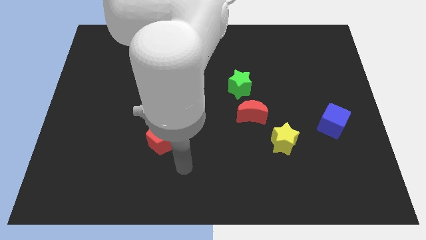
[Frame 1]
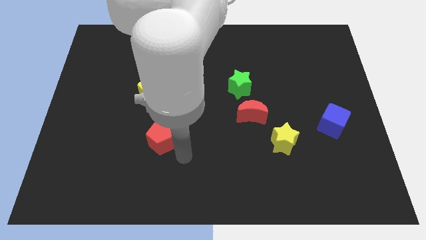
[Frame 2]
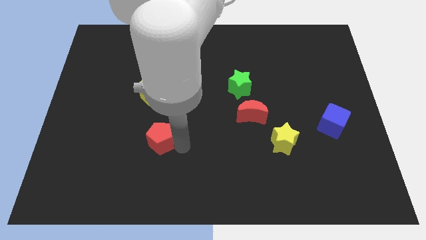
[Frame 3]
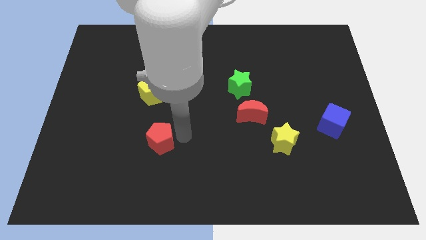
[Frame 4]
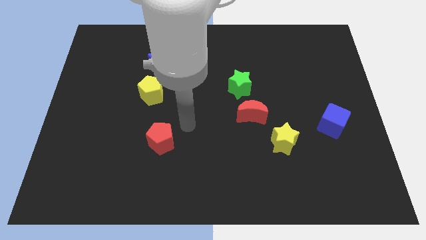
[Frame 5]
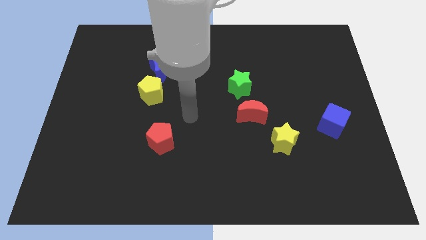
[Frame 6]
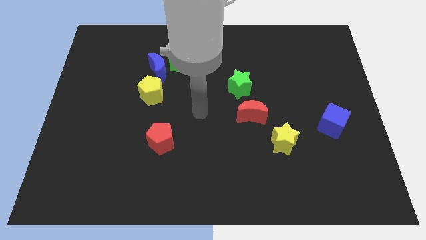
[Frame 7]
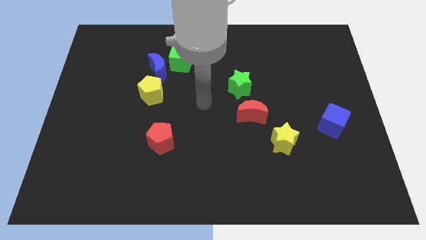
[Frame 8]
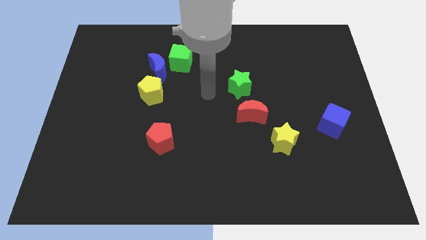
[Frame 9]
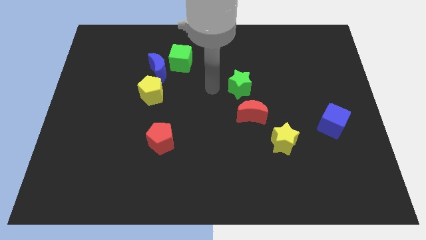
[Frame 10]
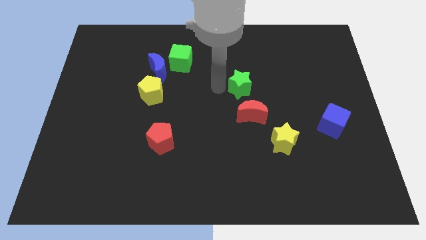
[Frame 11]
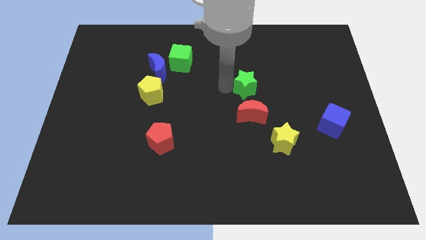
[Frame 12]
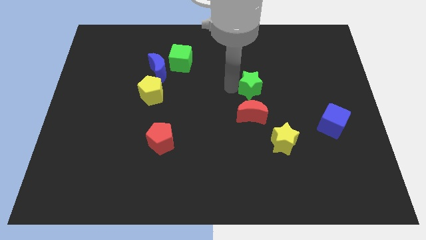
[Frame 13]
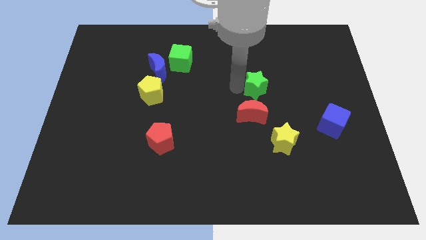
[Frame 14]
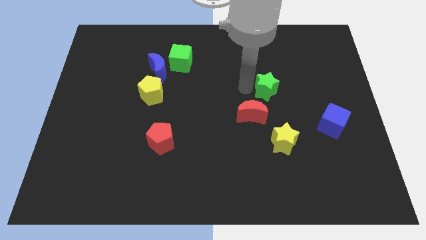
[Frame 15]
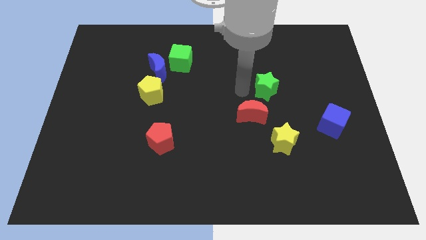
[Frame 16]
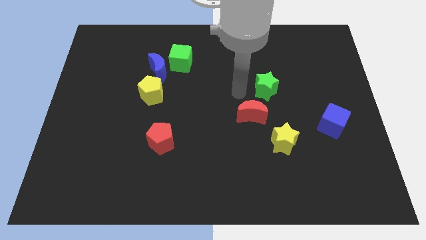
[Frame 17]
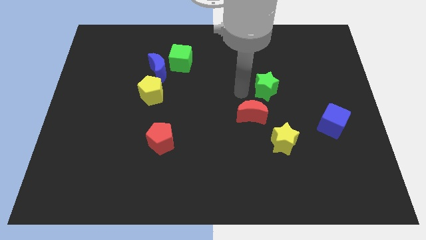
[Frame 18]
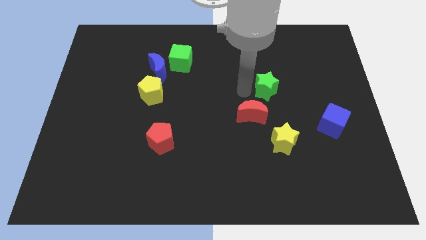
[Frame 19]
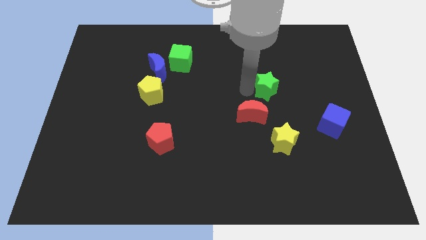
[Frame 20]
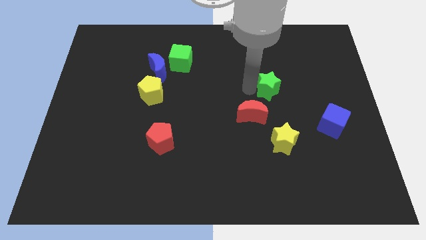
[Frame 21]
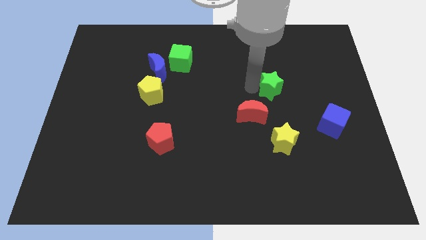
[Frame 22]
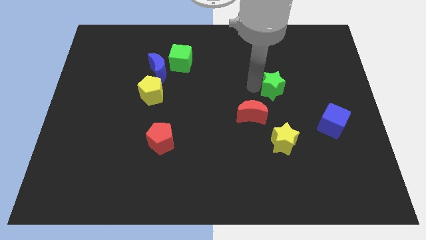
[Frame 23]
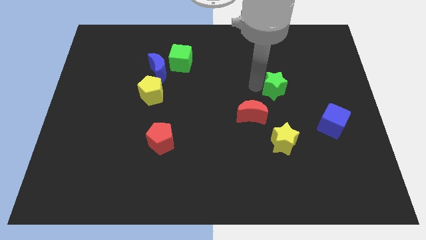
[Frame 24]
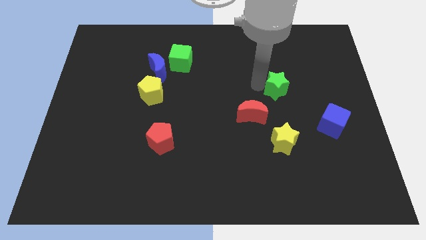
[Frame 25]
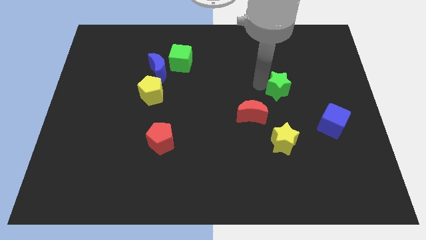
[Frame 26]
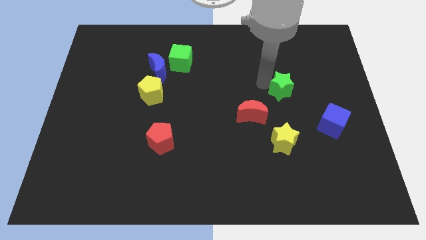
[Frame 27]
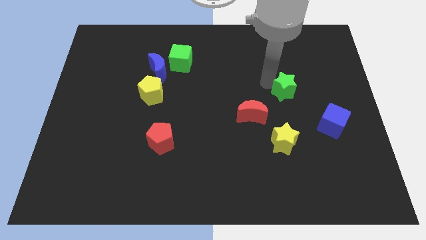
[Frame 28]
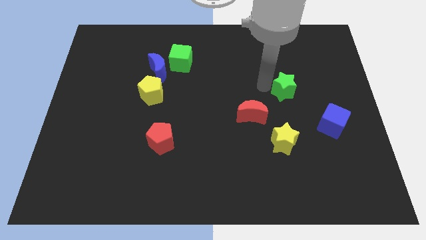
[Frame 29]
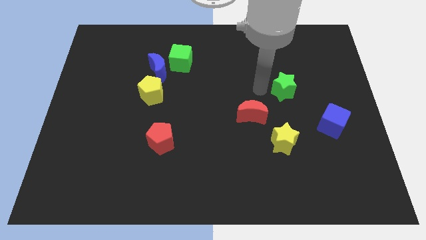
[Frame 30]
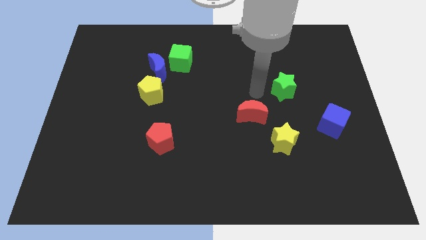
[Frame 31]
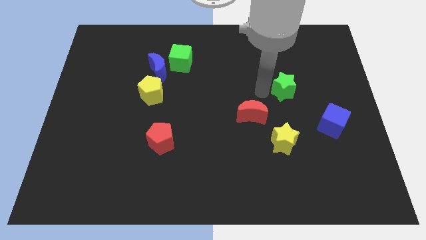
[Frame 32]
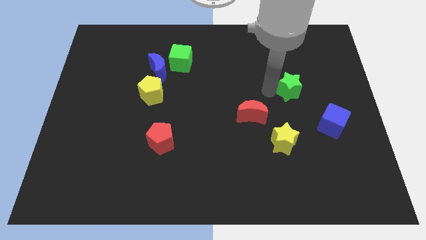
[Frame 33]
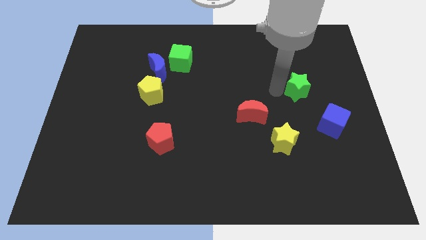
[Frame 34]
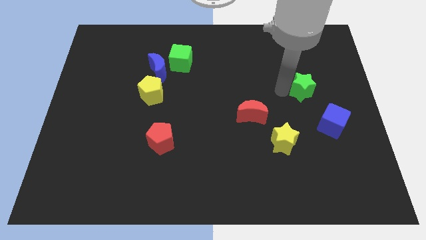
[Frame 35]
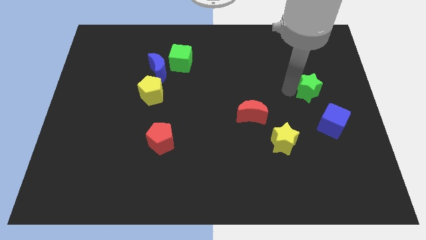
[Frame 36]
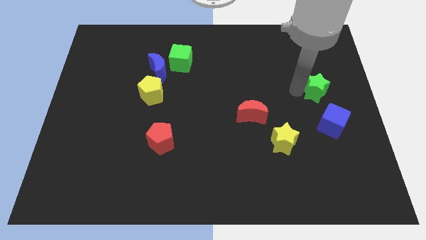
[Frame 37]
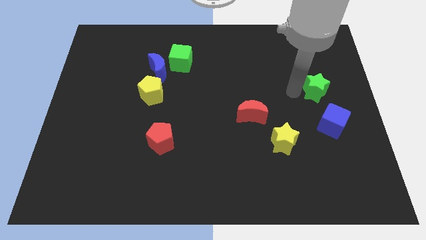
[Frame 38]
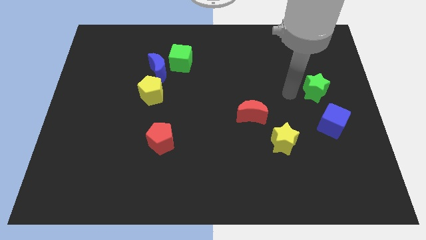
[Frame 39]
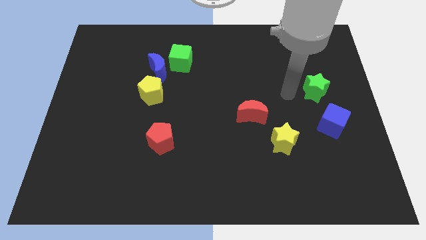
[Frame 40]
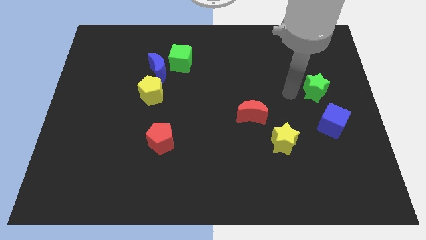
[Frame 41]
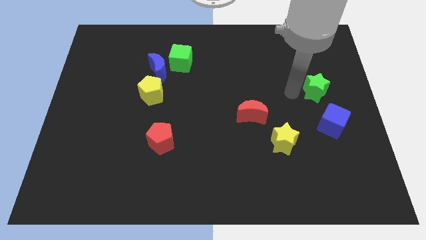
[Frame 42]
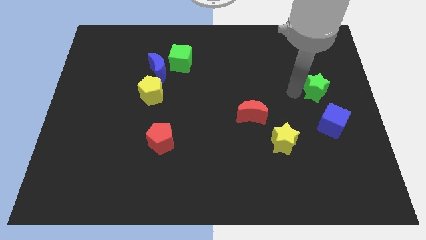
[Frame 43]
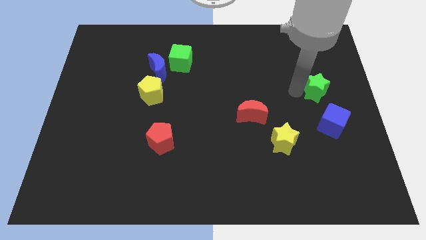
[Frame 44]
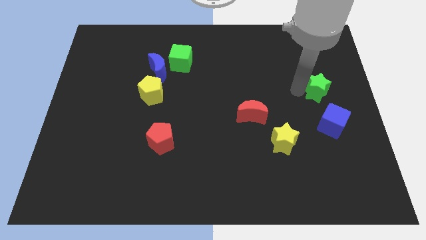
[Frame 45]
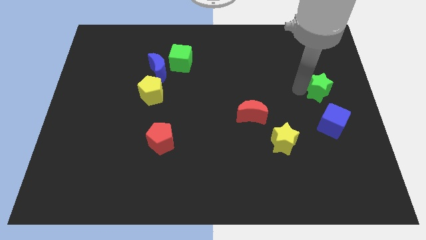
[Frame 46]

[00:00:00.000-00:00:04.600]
move the green star to the right side of the board

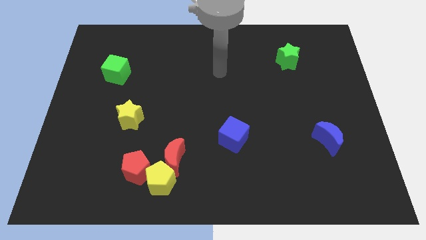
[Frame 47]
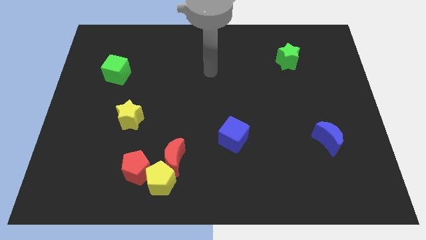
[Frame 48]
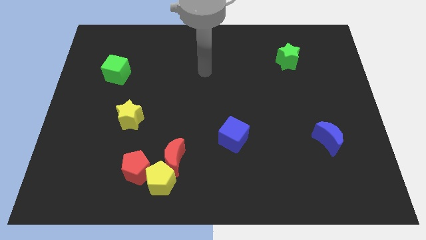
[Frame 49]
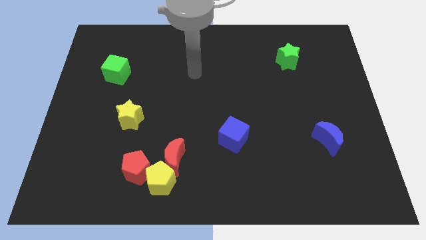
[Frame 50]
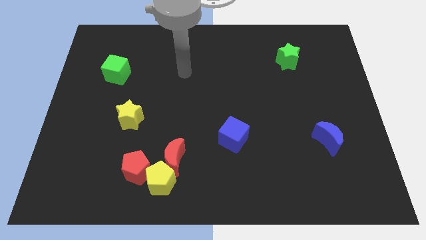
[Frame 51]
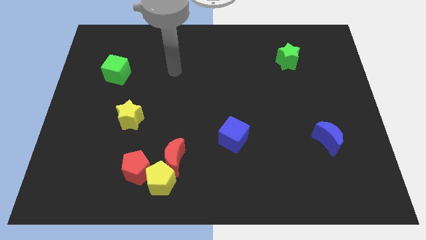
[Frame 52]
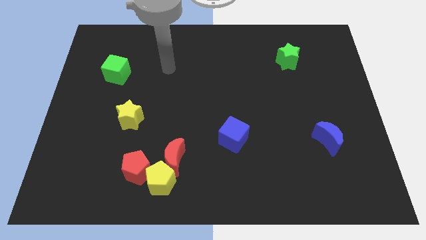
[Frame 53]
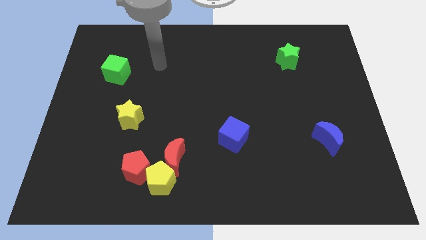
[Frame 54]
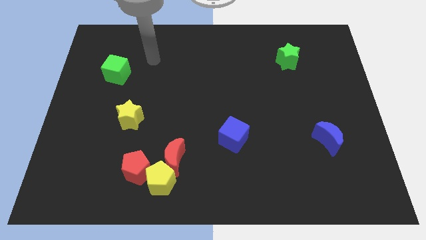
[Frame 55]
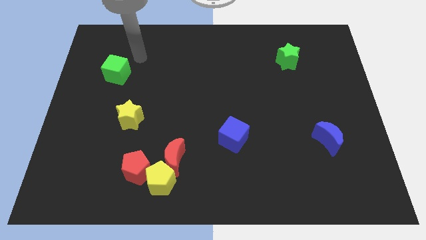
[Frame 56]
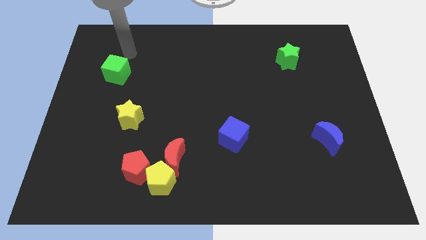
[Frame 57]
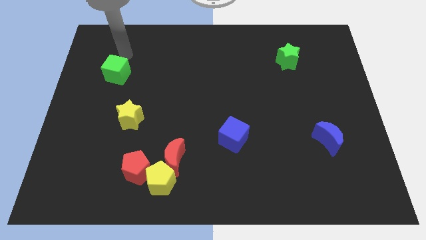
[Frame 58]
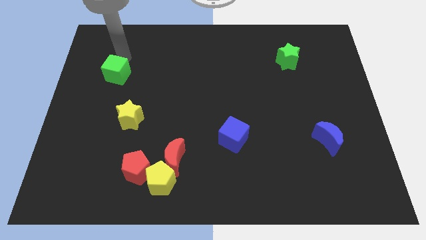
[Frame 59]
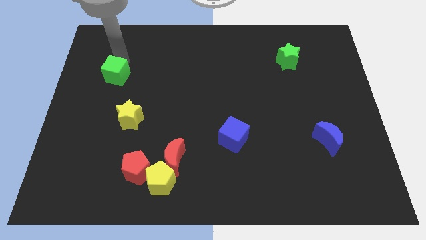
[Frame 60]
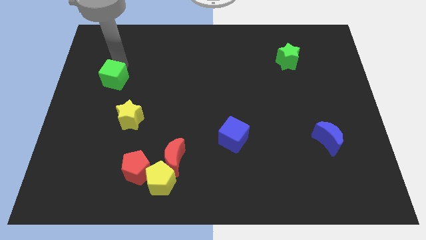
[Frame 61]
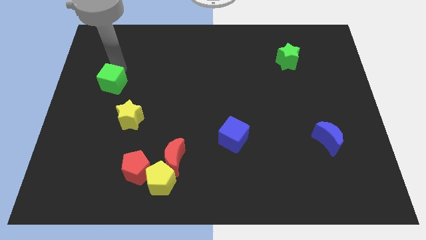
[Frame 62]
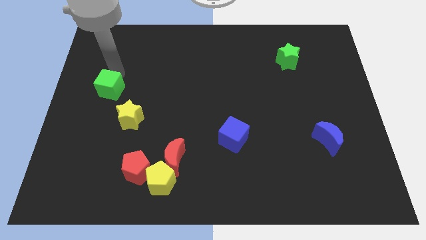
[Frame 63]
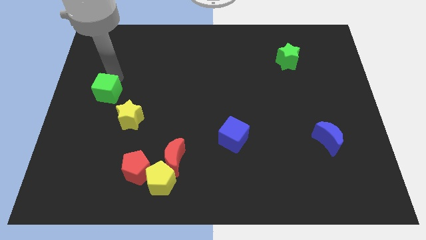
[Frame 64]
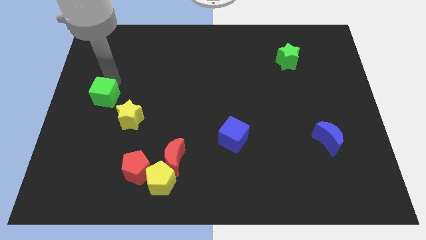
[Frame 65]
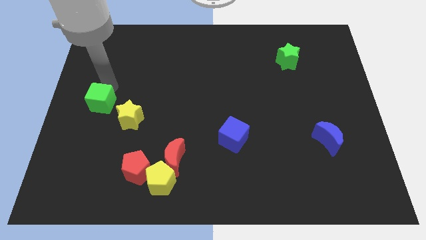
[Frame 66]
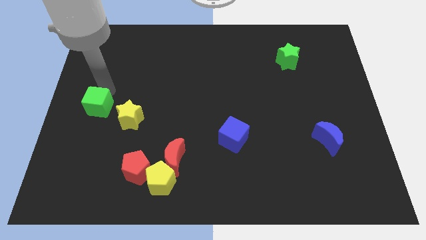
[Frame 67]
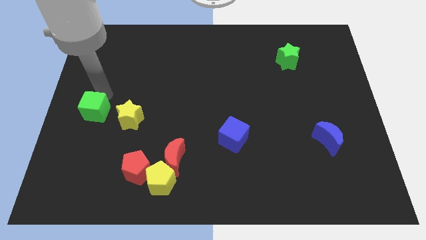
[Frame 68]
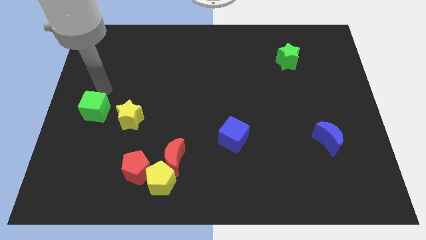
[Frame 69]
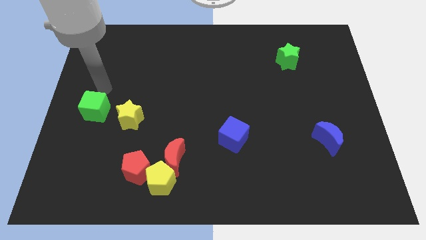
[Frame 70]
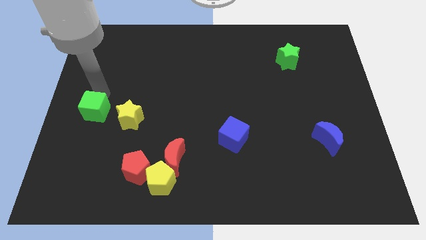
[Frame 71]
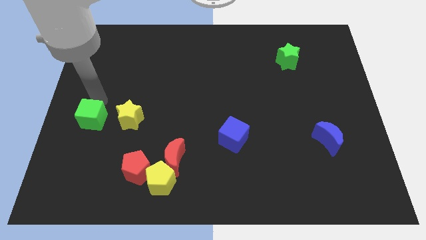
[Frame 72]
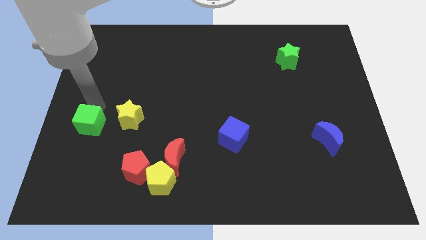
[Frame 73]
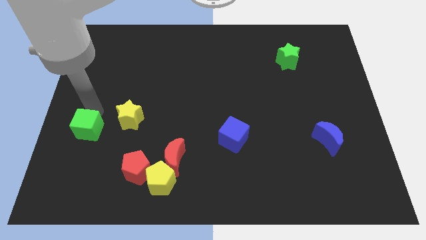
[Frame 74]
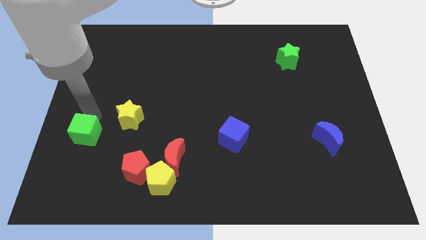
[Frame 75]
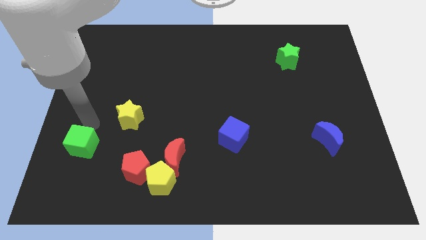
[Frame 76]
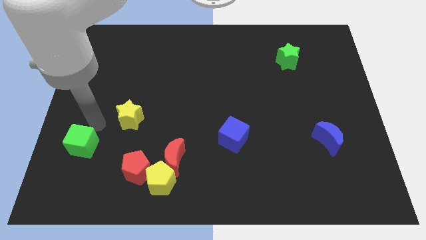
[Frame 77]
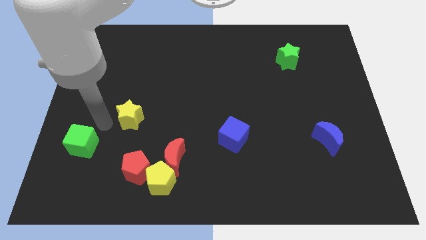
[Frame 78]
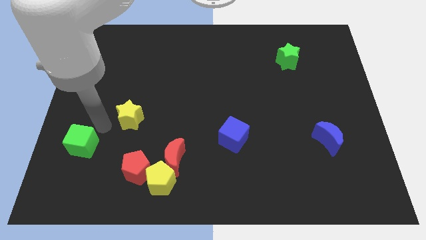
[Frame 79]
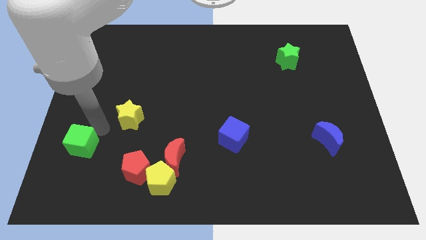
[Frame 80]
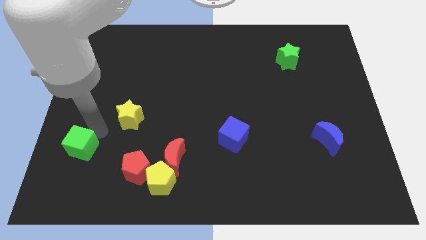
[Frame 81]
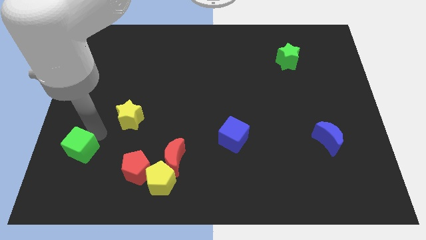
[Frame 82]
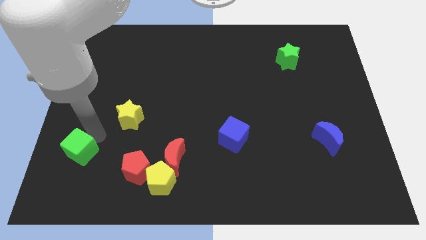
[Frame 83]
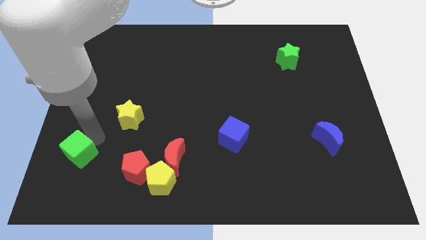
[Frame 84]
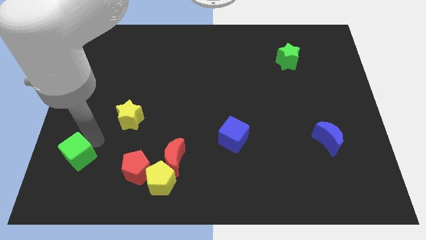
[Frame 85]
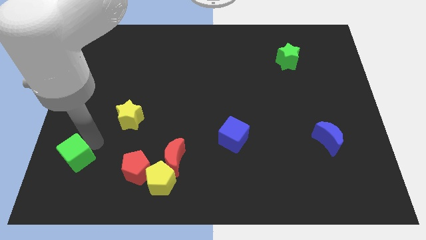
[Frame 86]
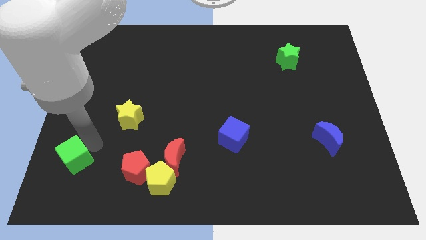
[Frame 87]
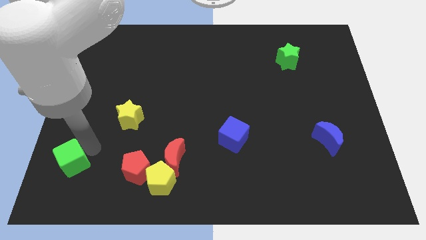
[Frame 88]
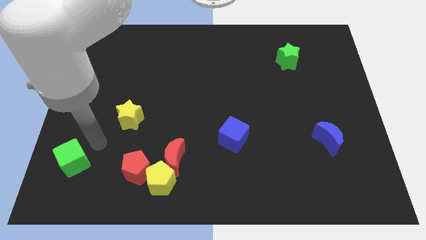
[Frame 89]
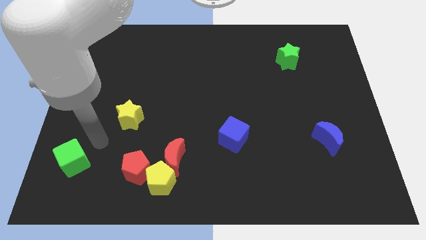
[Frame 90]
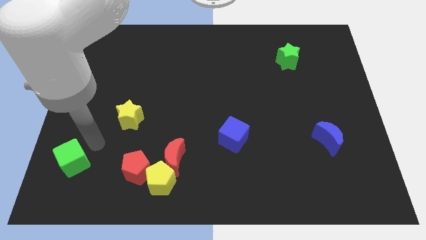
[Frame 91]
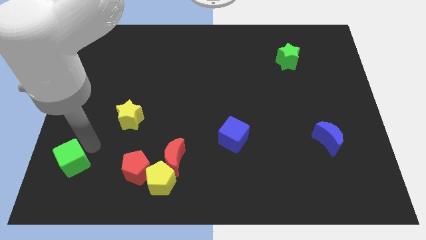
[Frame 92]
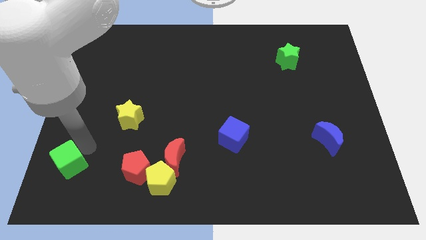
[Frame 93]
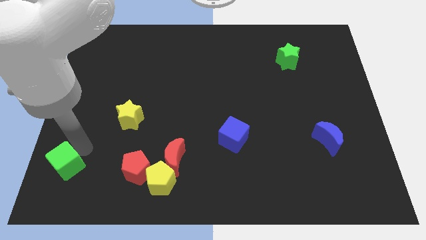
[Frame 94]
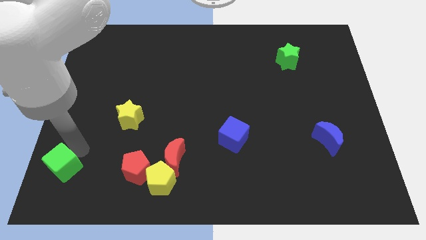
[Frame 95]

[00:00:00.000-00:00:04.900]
move the green cube to the lower left corner
